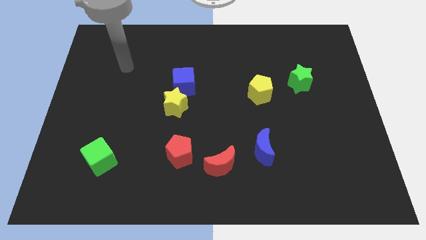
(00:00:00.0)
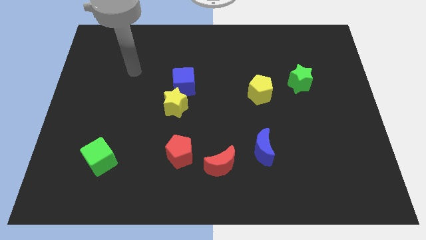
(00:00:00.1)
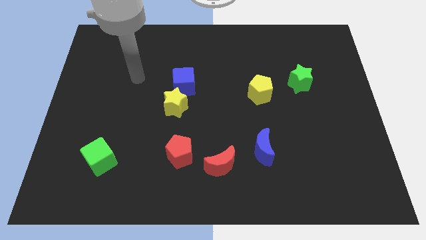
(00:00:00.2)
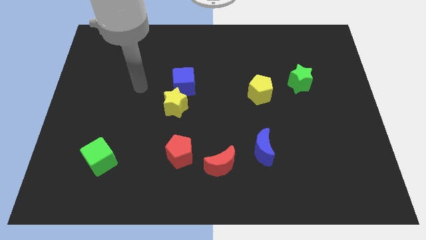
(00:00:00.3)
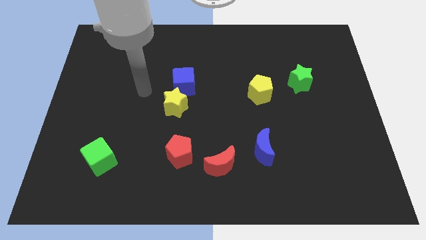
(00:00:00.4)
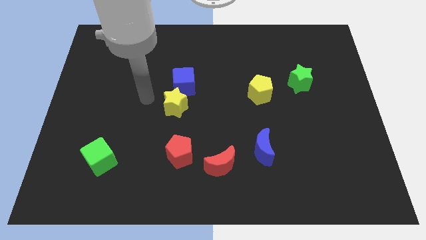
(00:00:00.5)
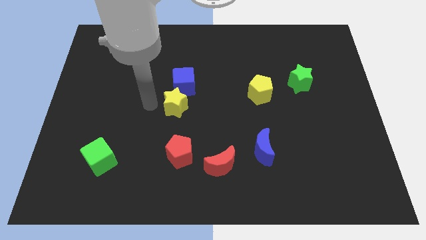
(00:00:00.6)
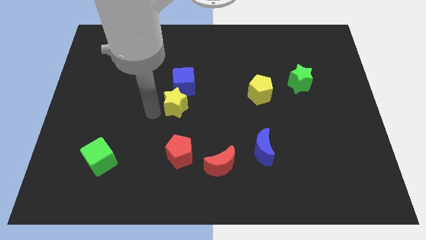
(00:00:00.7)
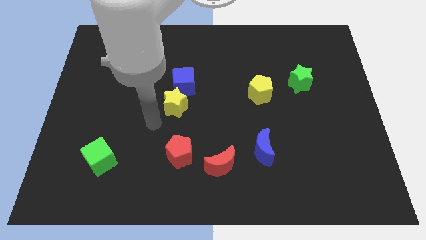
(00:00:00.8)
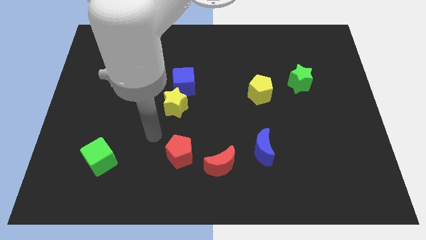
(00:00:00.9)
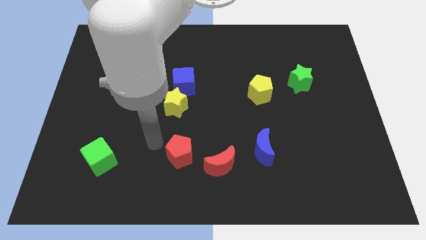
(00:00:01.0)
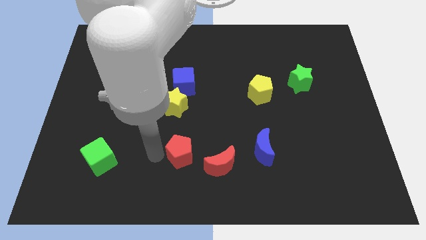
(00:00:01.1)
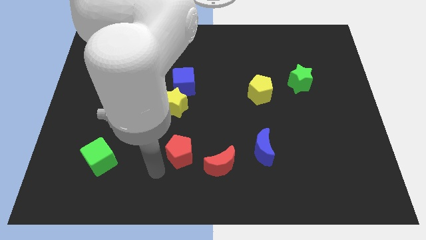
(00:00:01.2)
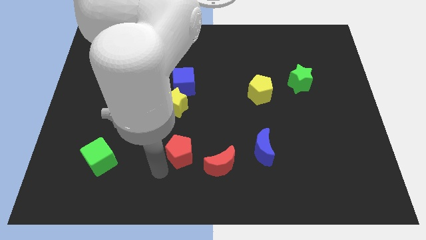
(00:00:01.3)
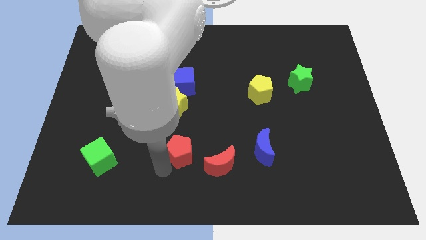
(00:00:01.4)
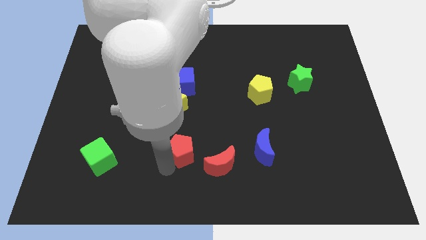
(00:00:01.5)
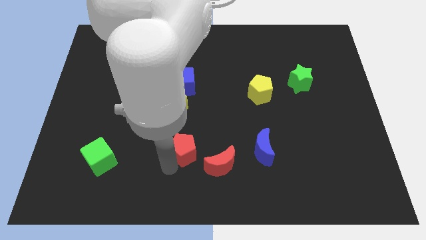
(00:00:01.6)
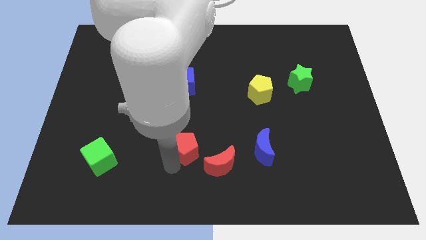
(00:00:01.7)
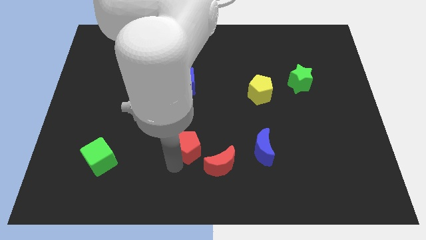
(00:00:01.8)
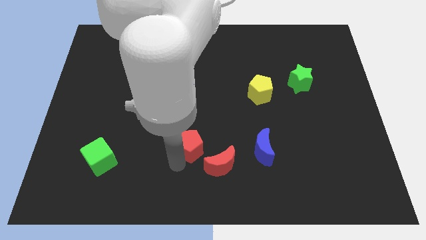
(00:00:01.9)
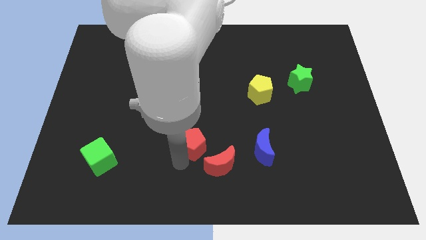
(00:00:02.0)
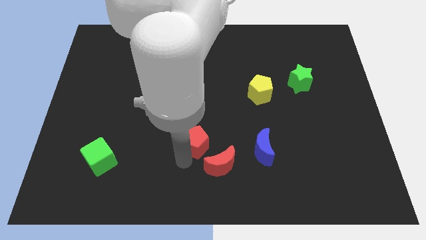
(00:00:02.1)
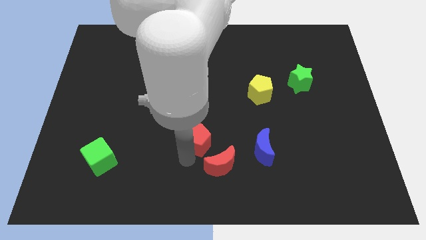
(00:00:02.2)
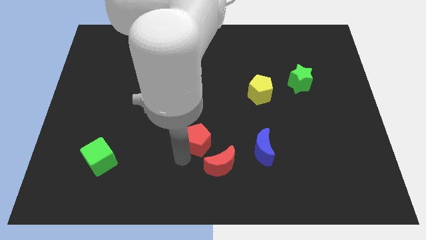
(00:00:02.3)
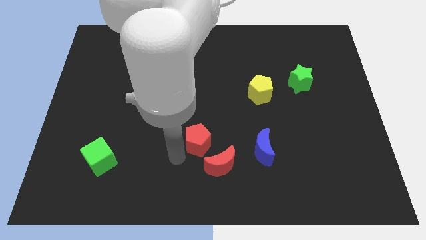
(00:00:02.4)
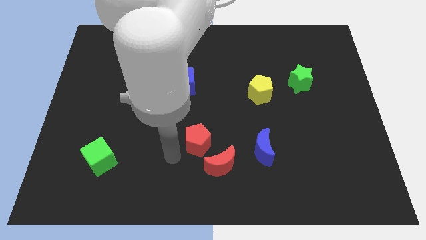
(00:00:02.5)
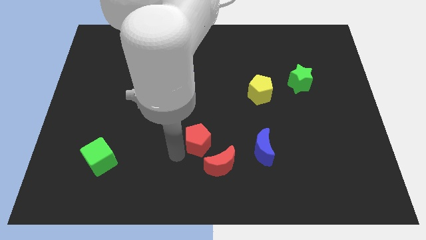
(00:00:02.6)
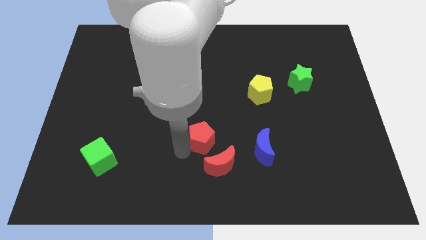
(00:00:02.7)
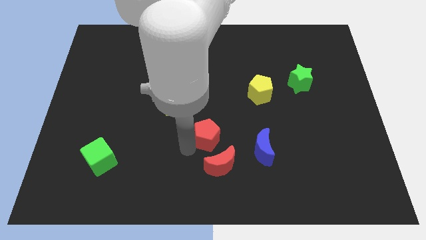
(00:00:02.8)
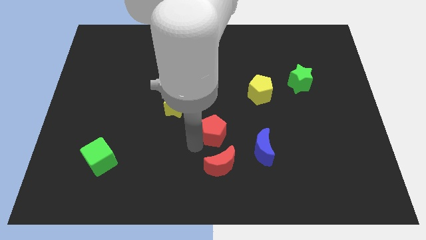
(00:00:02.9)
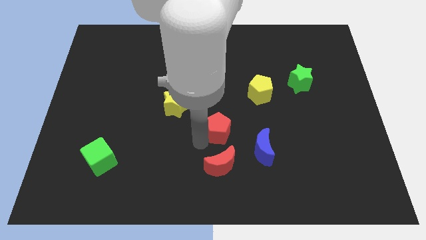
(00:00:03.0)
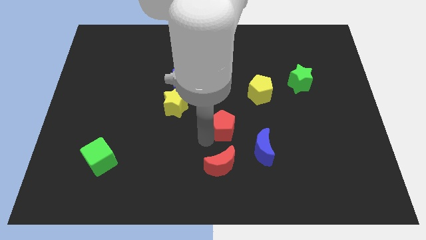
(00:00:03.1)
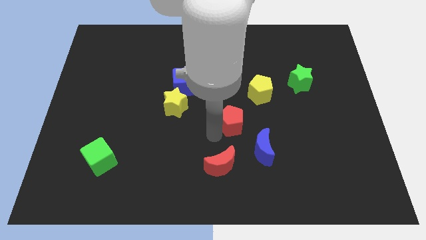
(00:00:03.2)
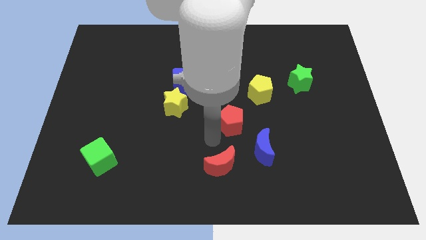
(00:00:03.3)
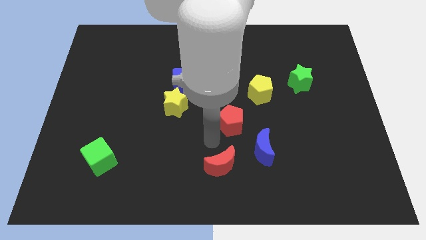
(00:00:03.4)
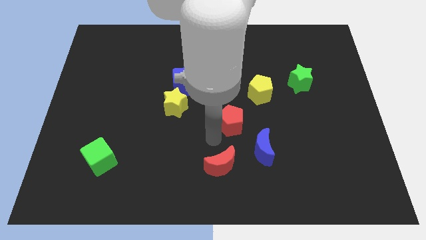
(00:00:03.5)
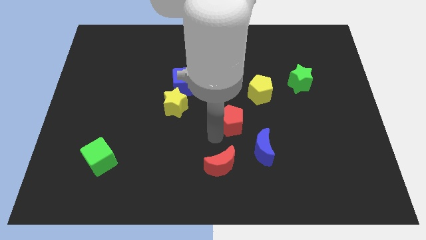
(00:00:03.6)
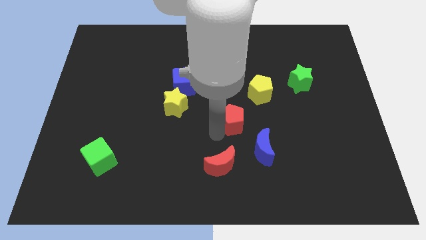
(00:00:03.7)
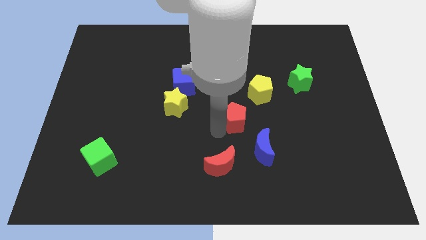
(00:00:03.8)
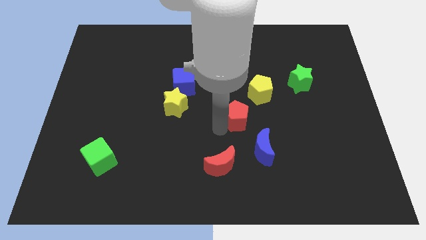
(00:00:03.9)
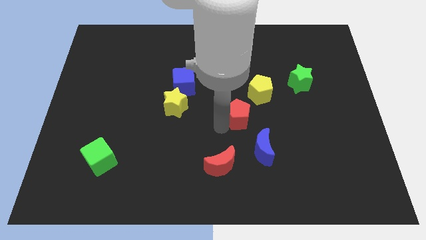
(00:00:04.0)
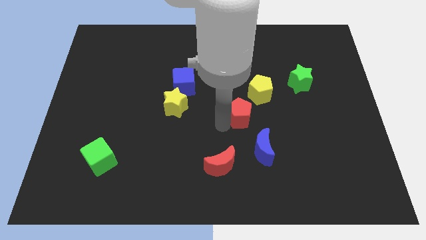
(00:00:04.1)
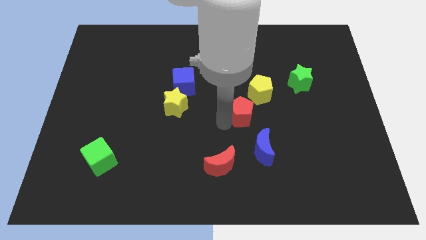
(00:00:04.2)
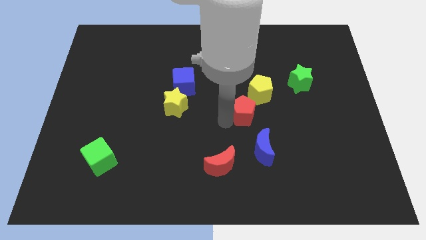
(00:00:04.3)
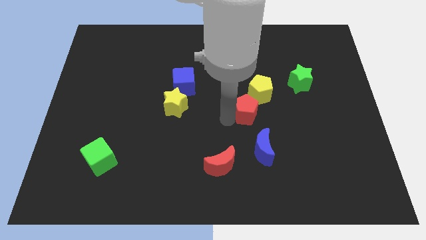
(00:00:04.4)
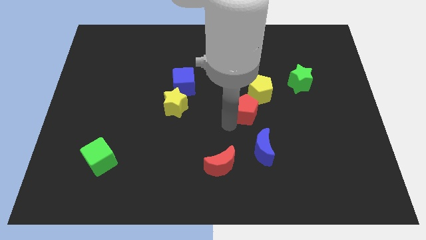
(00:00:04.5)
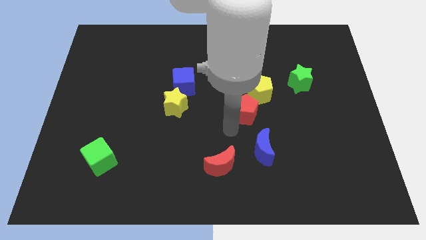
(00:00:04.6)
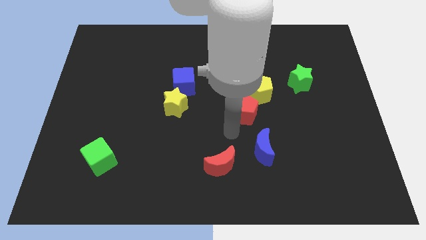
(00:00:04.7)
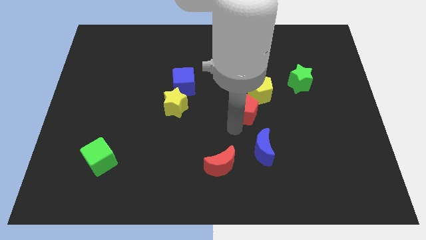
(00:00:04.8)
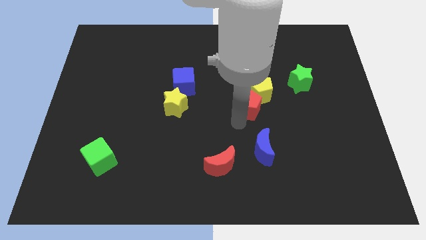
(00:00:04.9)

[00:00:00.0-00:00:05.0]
push the red pentagon next to the yellow pentagon

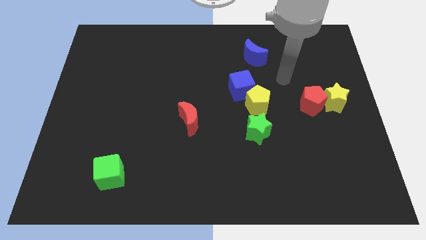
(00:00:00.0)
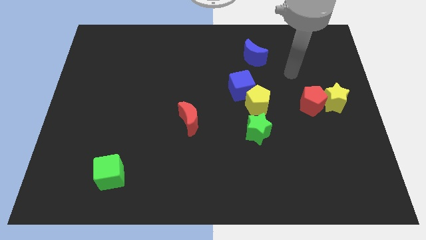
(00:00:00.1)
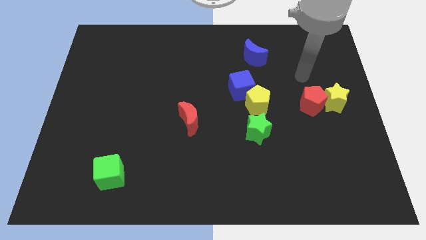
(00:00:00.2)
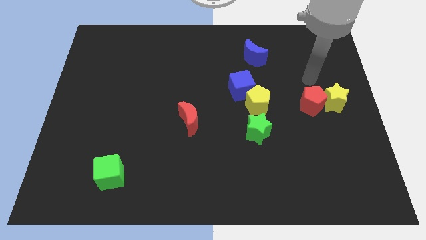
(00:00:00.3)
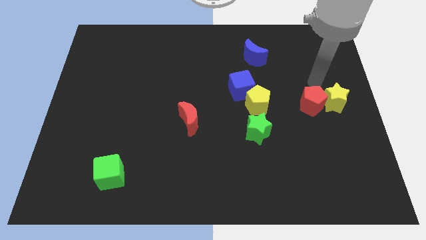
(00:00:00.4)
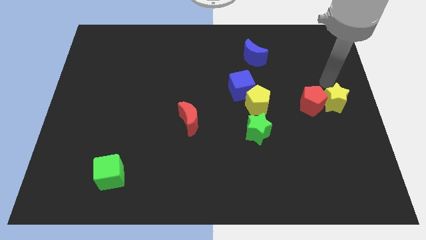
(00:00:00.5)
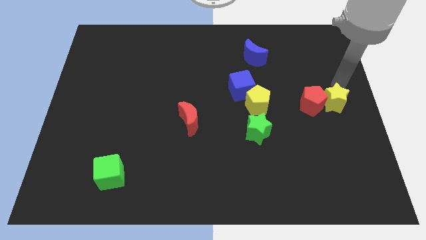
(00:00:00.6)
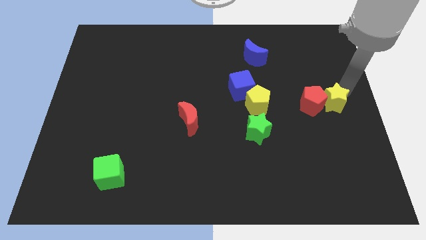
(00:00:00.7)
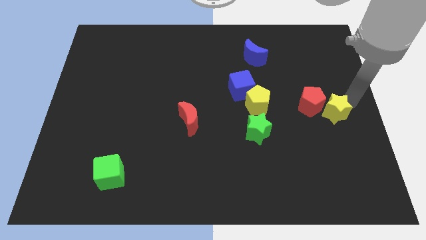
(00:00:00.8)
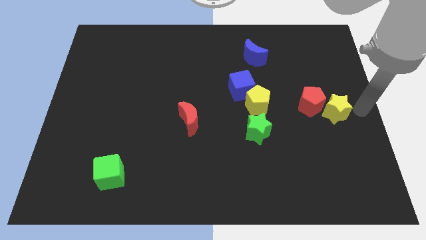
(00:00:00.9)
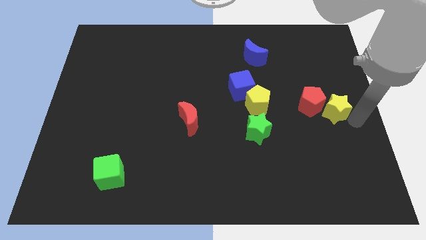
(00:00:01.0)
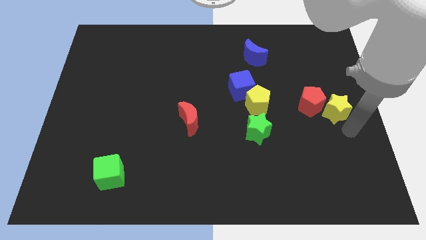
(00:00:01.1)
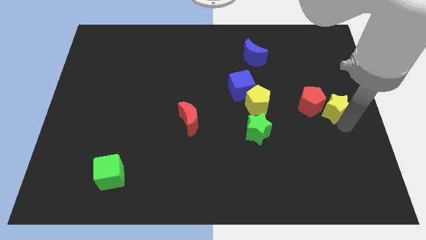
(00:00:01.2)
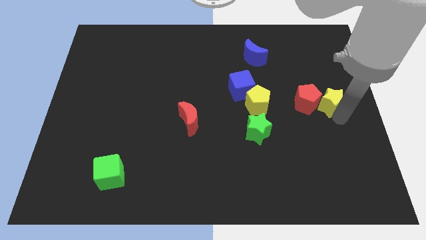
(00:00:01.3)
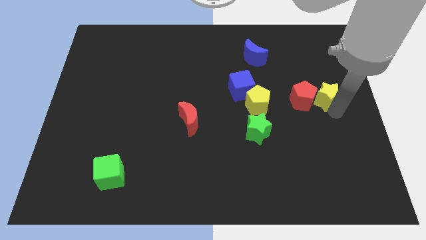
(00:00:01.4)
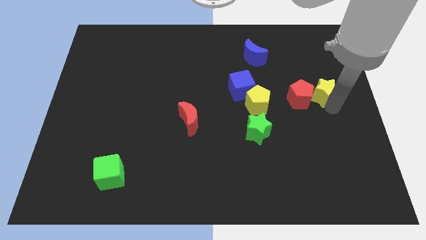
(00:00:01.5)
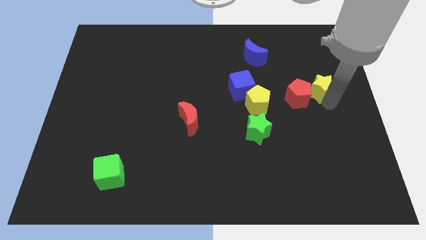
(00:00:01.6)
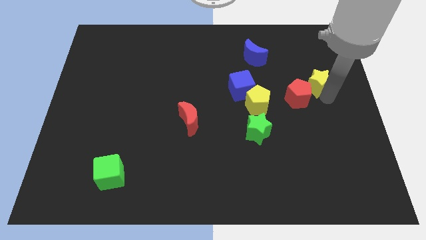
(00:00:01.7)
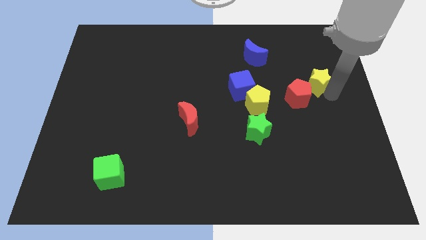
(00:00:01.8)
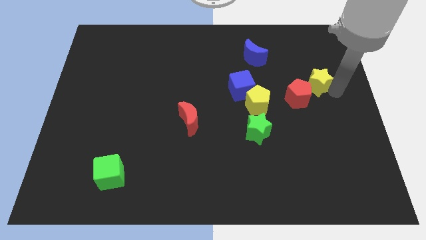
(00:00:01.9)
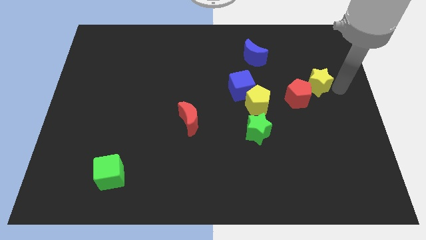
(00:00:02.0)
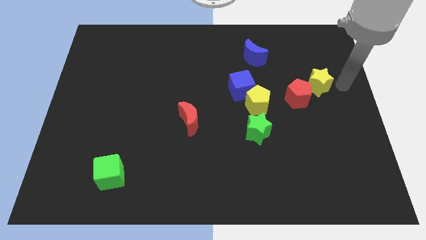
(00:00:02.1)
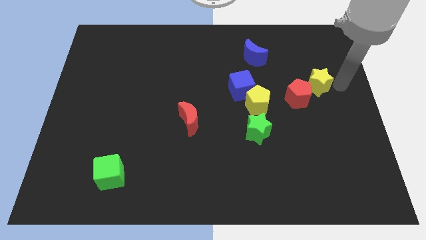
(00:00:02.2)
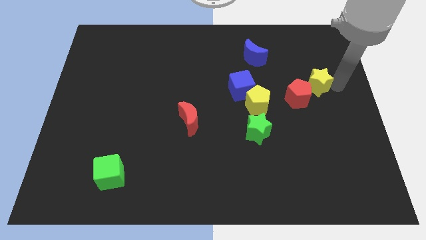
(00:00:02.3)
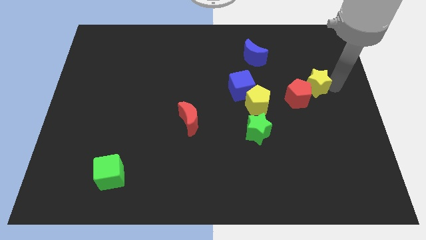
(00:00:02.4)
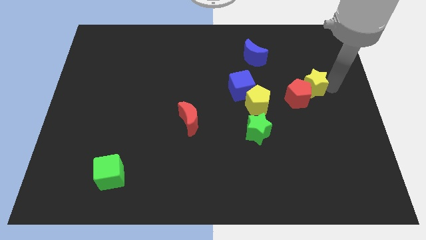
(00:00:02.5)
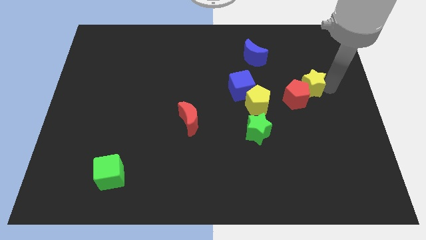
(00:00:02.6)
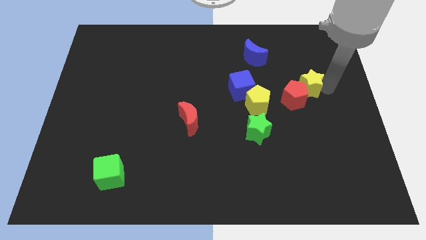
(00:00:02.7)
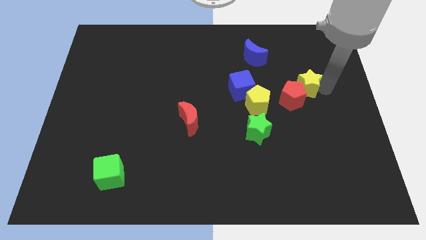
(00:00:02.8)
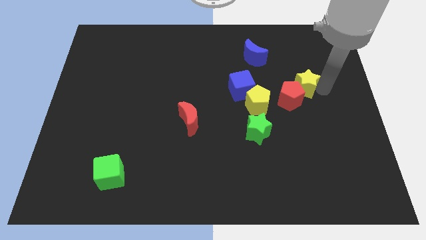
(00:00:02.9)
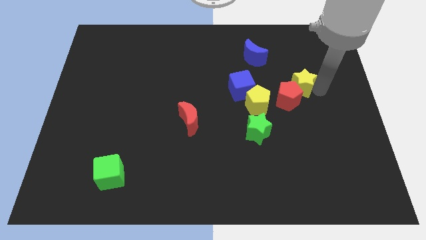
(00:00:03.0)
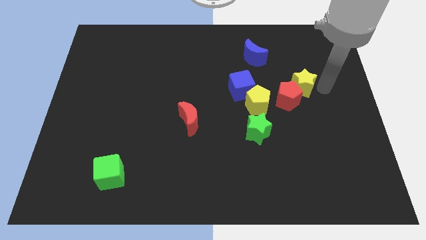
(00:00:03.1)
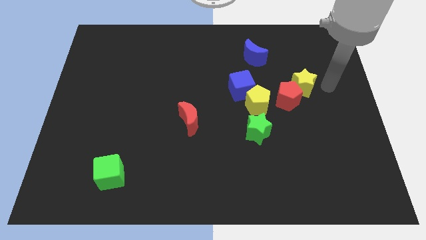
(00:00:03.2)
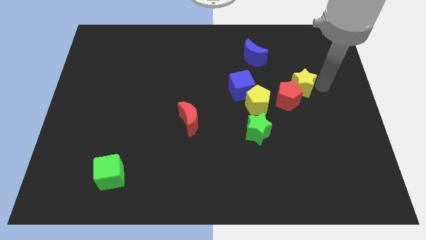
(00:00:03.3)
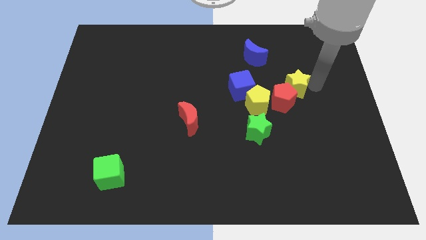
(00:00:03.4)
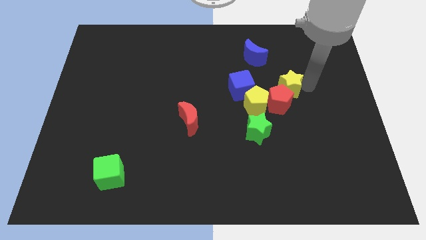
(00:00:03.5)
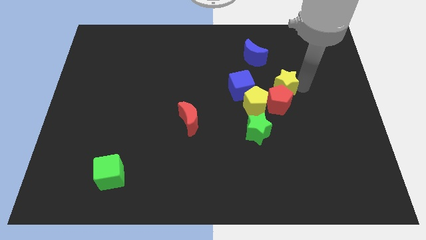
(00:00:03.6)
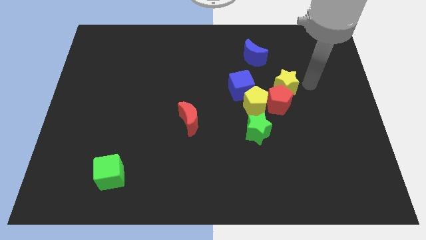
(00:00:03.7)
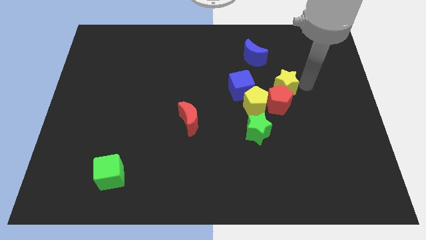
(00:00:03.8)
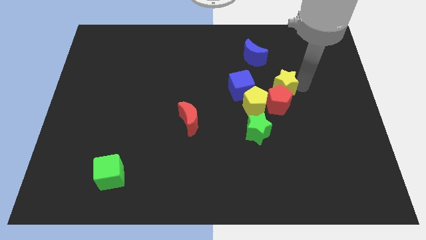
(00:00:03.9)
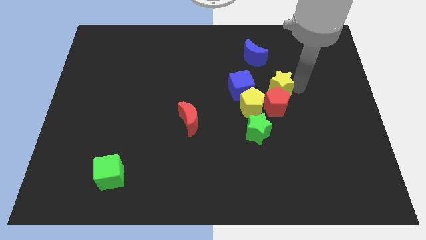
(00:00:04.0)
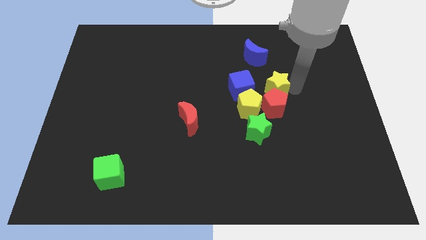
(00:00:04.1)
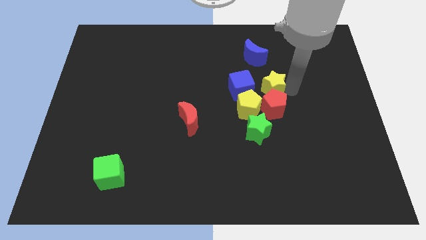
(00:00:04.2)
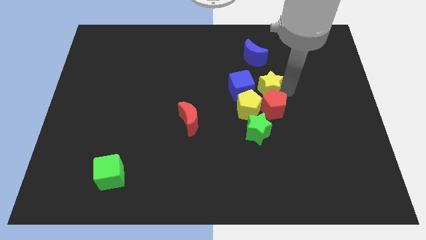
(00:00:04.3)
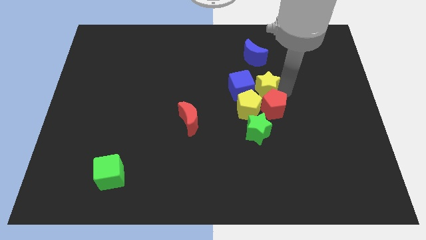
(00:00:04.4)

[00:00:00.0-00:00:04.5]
slide the yellow star towards the blue cube
